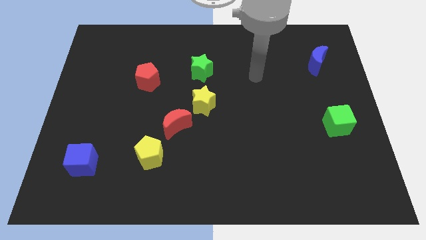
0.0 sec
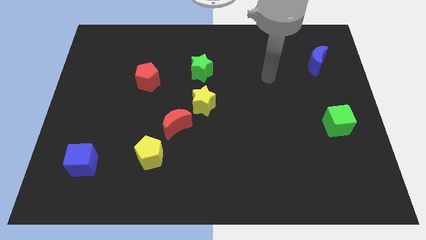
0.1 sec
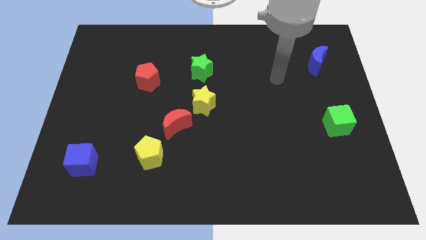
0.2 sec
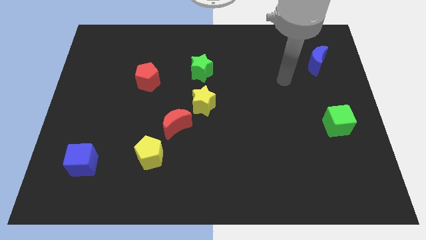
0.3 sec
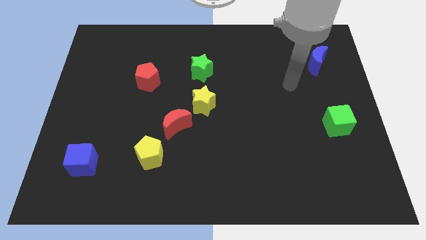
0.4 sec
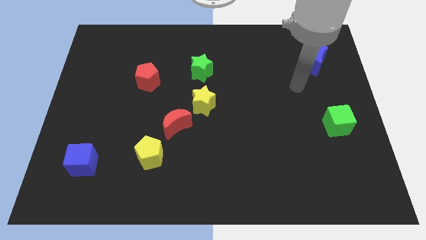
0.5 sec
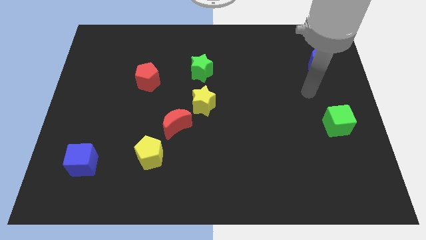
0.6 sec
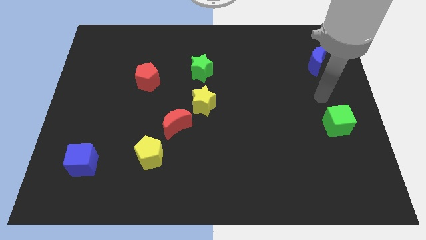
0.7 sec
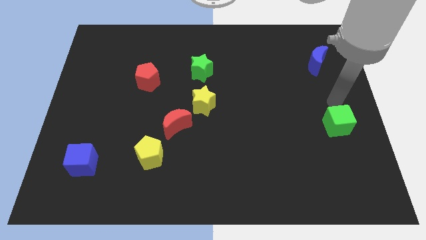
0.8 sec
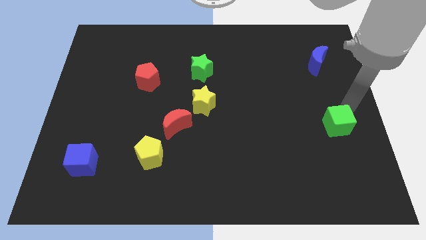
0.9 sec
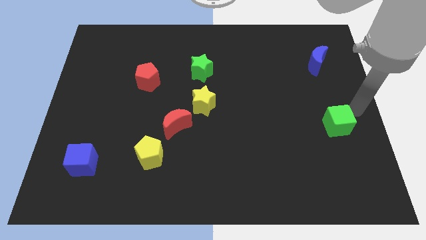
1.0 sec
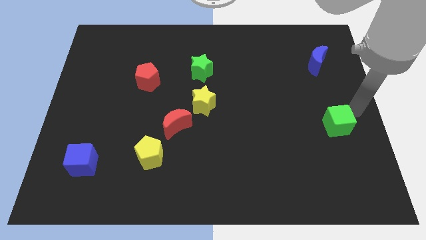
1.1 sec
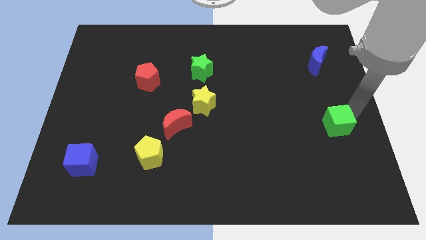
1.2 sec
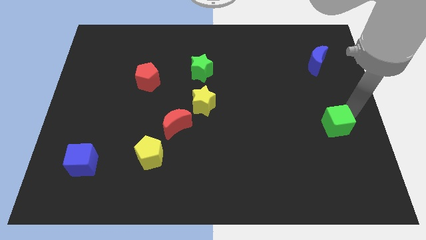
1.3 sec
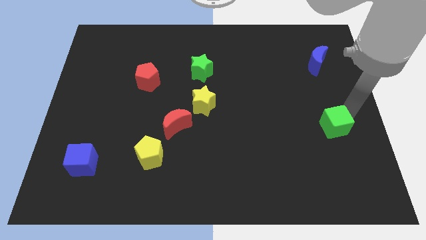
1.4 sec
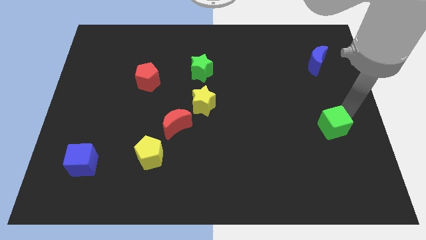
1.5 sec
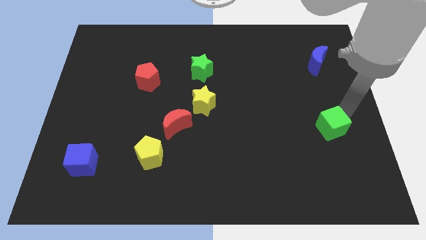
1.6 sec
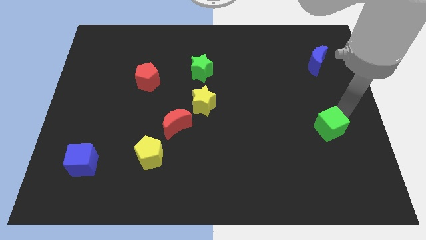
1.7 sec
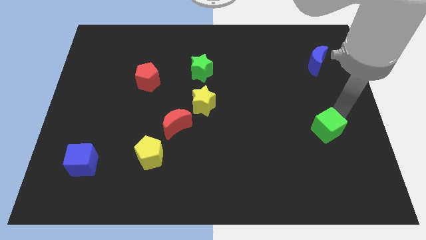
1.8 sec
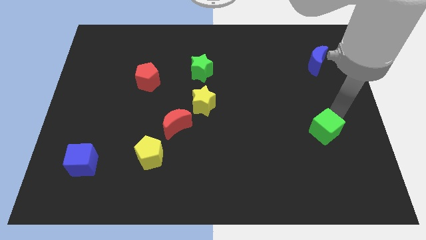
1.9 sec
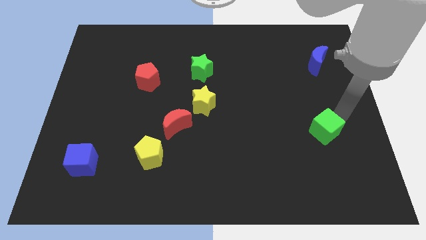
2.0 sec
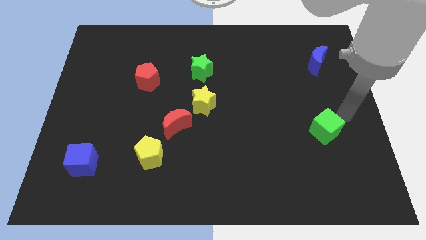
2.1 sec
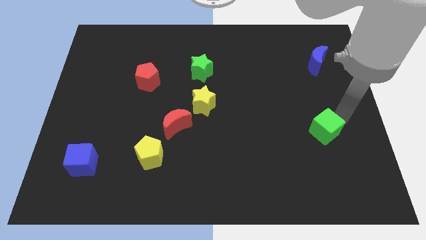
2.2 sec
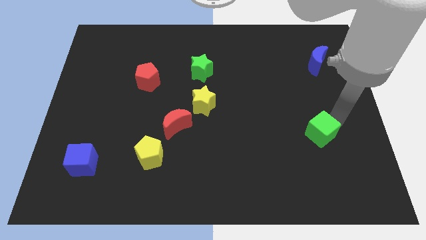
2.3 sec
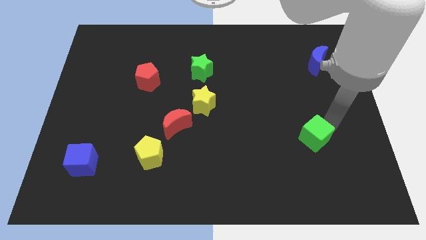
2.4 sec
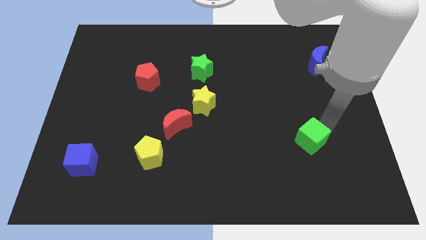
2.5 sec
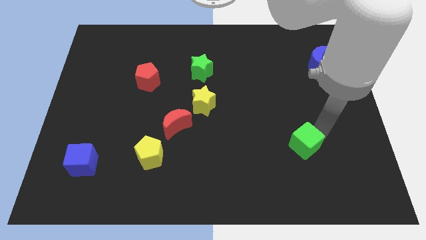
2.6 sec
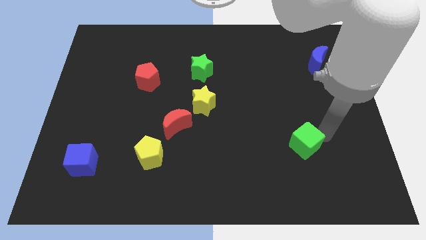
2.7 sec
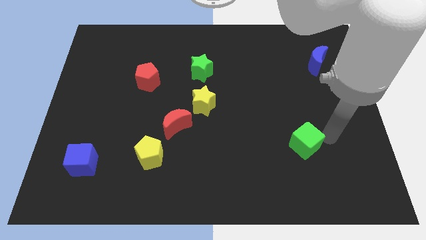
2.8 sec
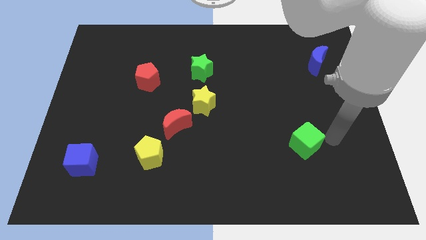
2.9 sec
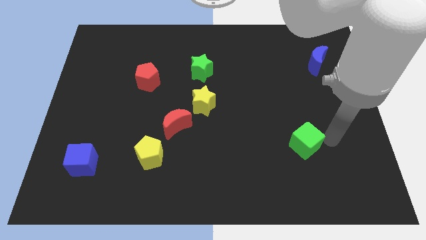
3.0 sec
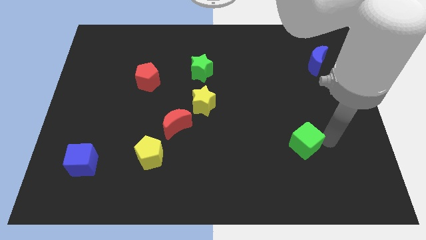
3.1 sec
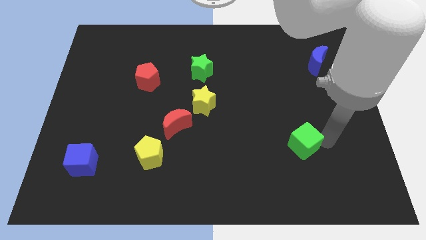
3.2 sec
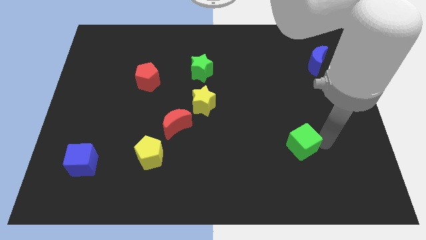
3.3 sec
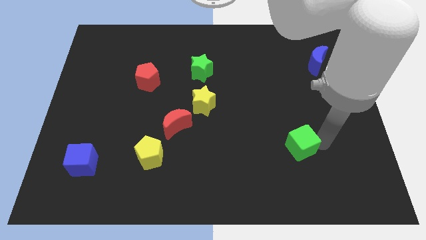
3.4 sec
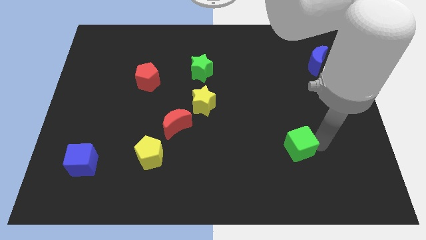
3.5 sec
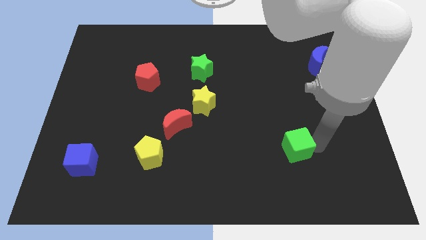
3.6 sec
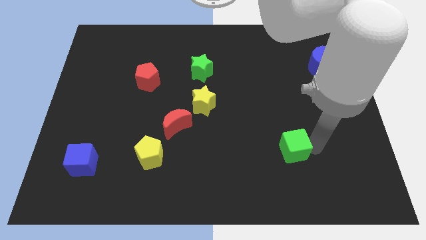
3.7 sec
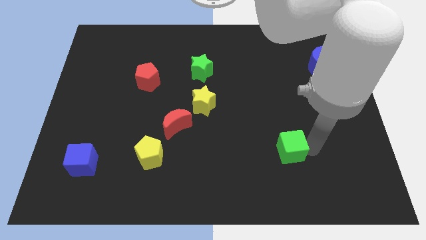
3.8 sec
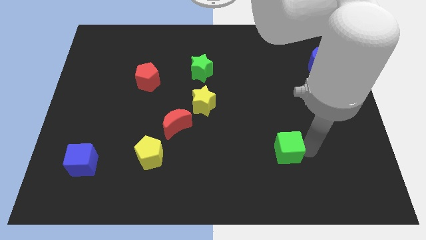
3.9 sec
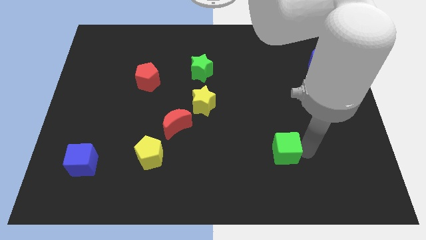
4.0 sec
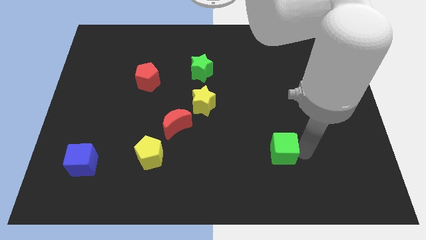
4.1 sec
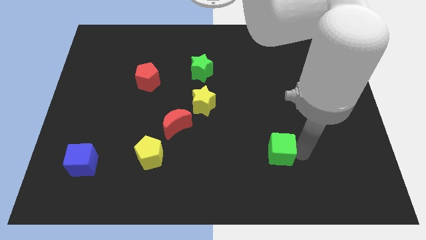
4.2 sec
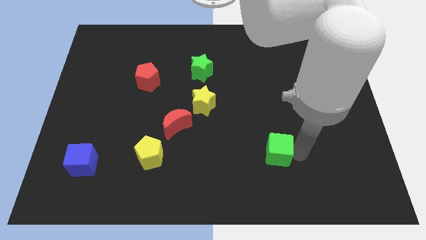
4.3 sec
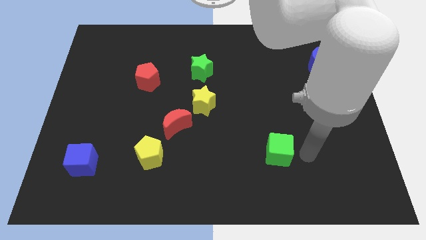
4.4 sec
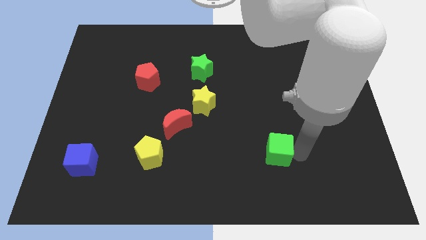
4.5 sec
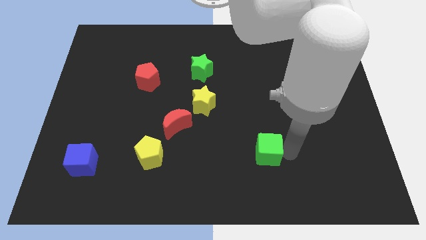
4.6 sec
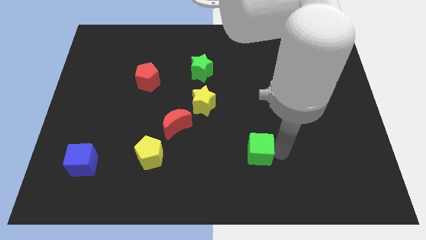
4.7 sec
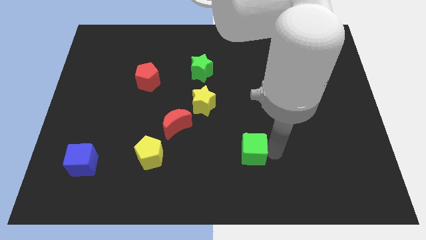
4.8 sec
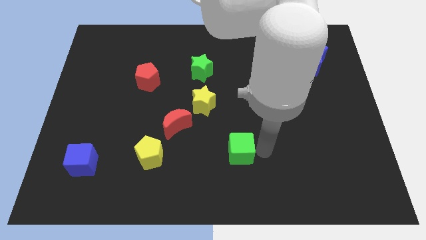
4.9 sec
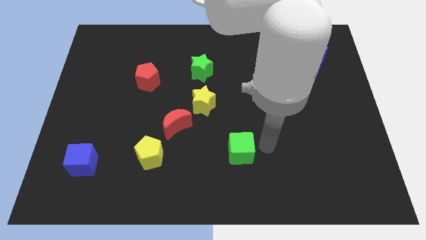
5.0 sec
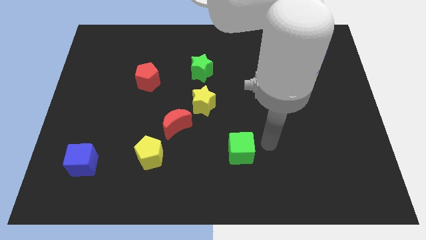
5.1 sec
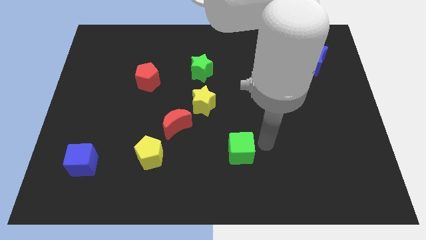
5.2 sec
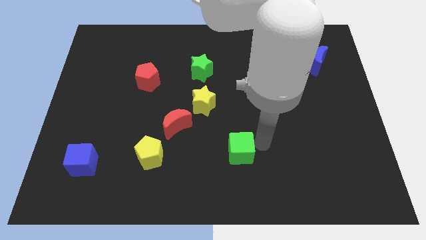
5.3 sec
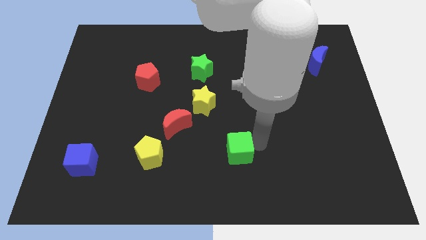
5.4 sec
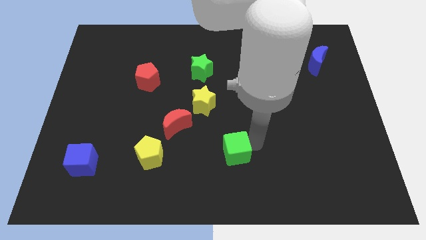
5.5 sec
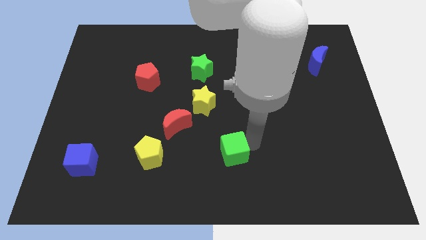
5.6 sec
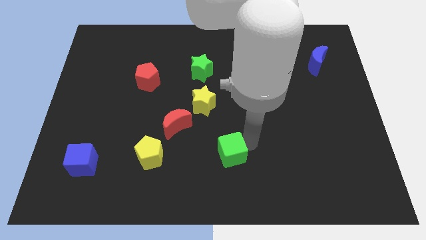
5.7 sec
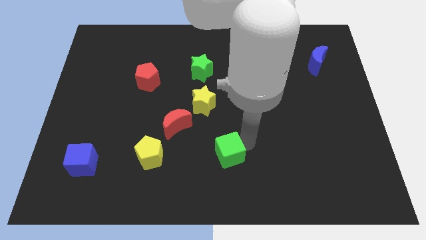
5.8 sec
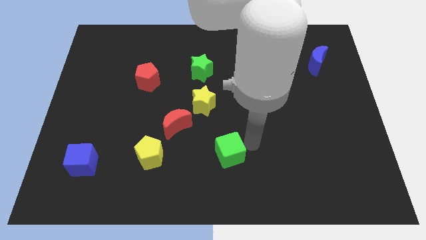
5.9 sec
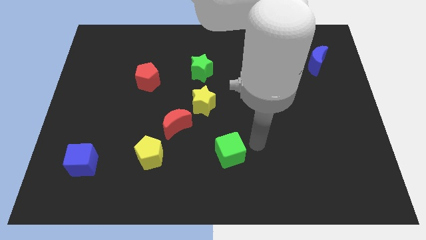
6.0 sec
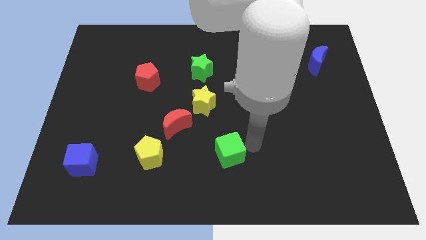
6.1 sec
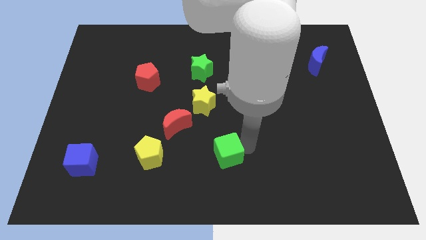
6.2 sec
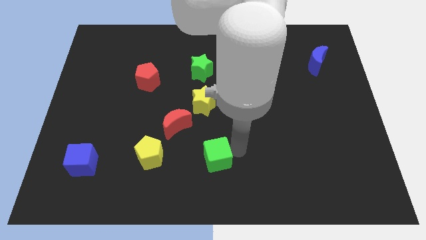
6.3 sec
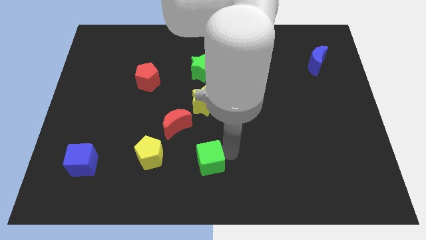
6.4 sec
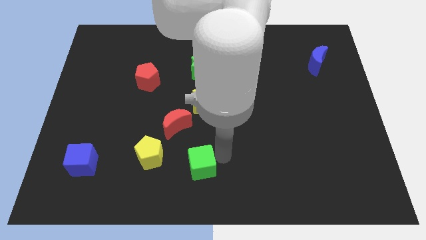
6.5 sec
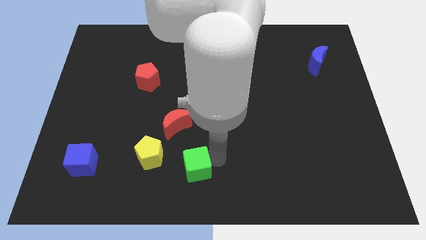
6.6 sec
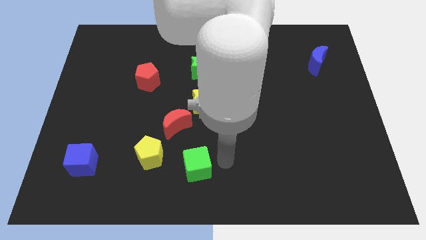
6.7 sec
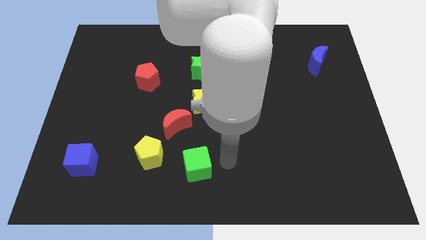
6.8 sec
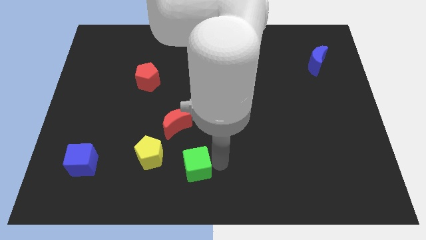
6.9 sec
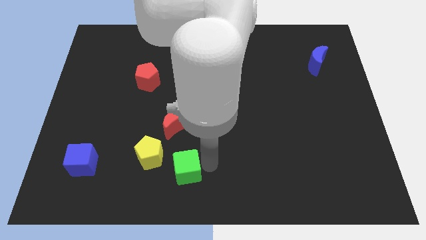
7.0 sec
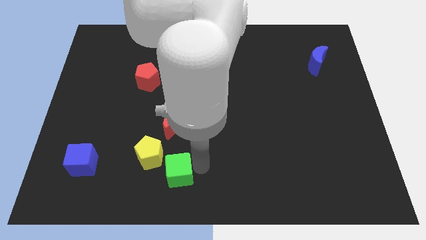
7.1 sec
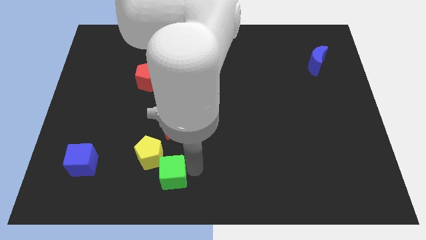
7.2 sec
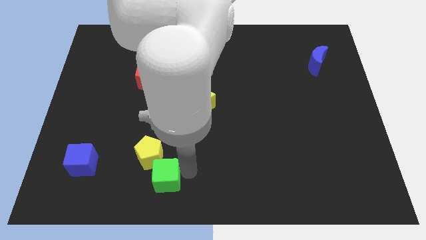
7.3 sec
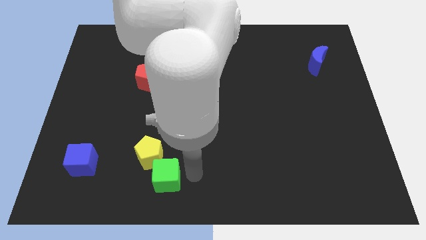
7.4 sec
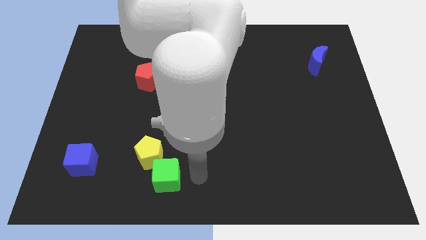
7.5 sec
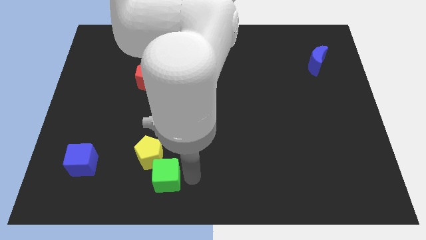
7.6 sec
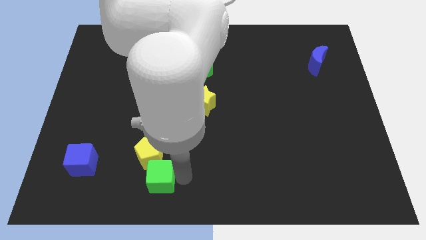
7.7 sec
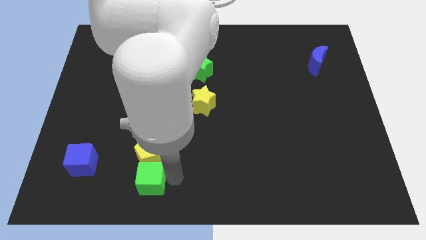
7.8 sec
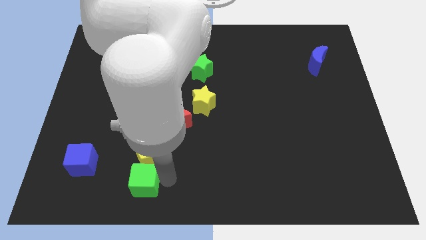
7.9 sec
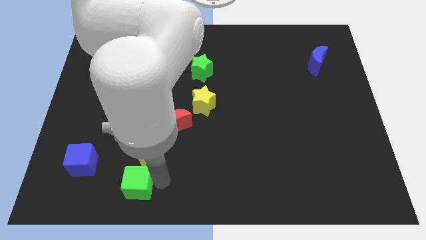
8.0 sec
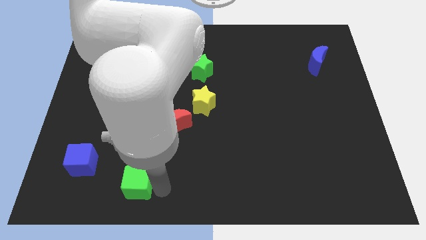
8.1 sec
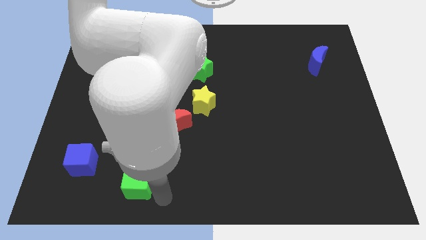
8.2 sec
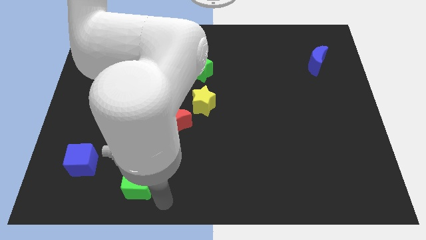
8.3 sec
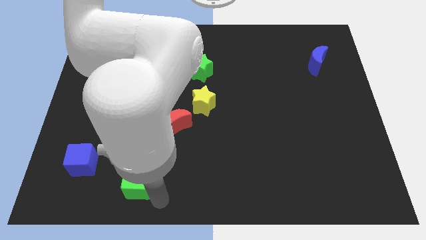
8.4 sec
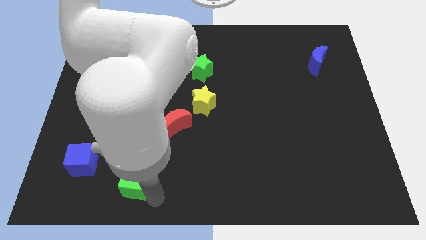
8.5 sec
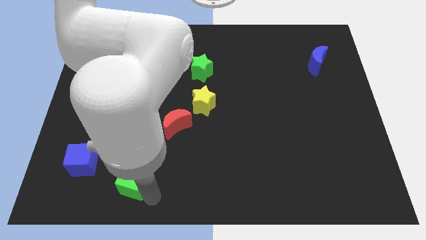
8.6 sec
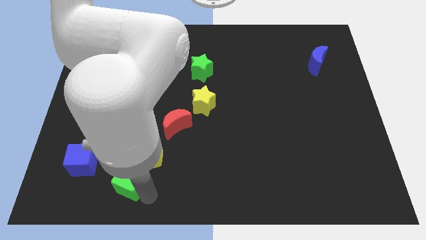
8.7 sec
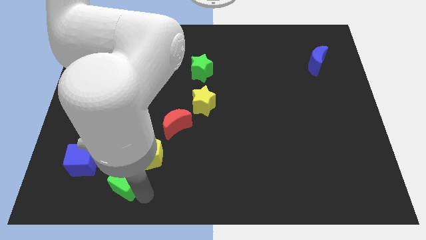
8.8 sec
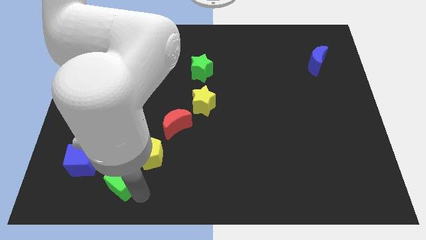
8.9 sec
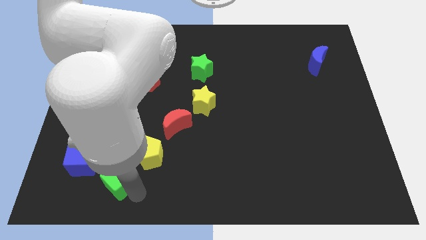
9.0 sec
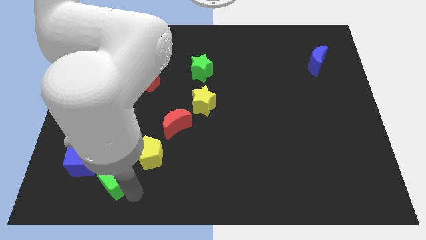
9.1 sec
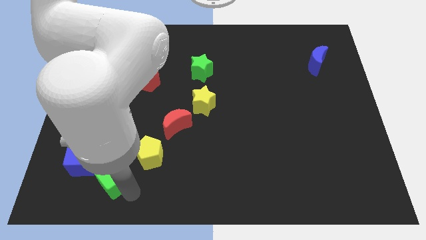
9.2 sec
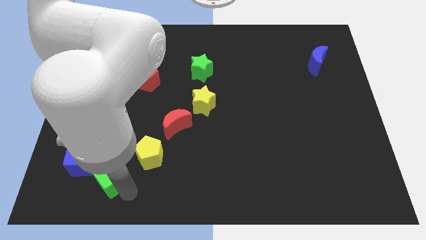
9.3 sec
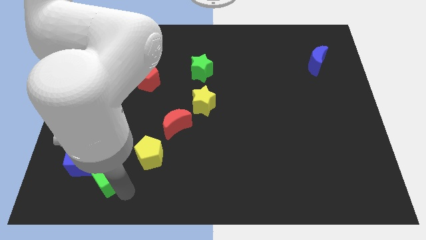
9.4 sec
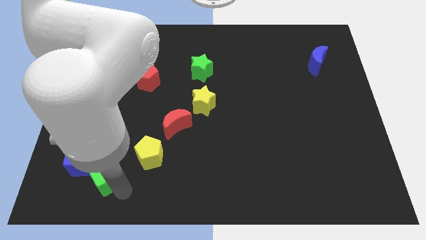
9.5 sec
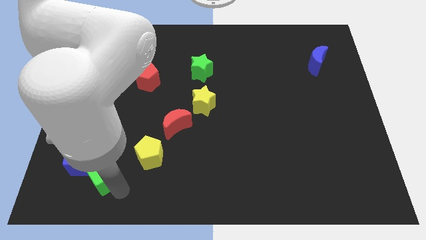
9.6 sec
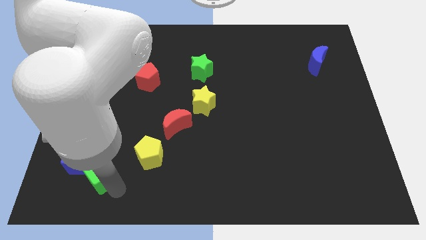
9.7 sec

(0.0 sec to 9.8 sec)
push the green cube next to the blue cube
